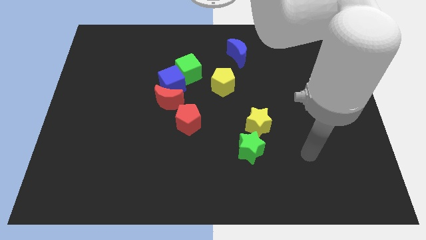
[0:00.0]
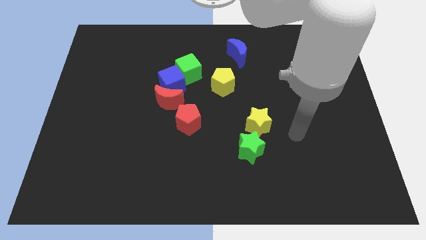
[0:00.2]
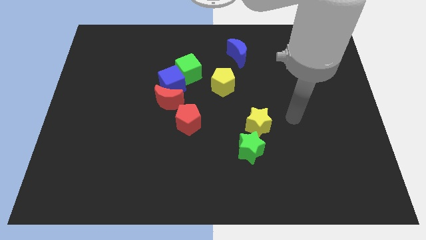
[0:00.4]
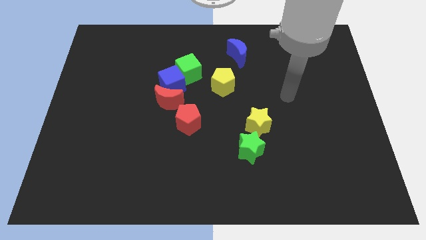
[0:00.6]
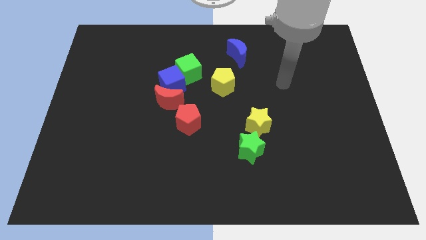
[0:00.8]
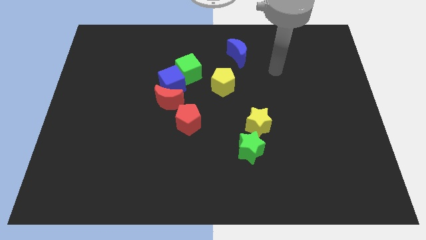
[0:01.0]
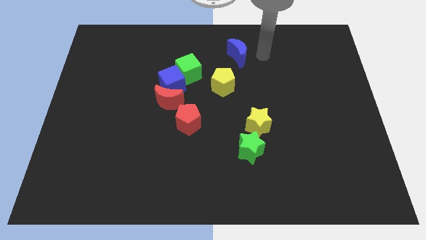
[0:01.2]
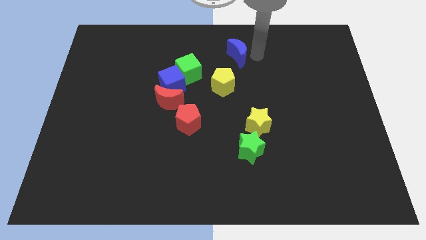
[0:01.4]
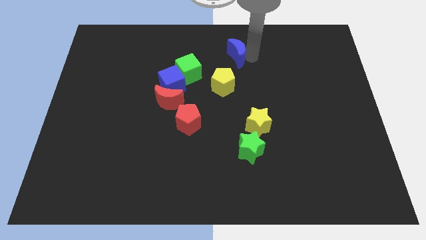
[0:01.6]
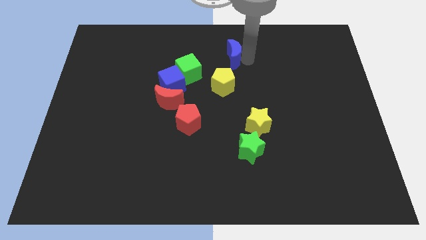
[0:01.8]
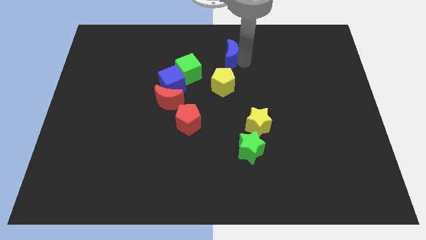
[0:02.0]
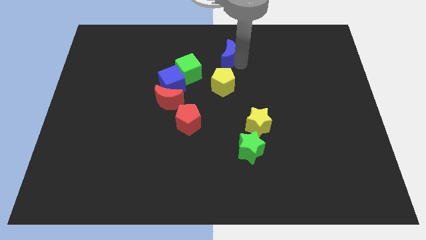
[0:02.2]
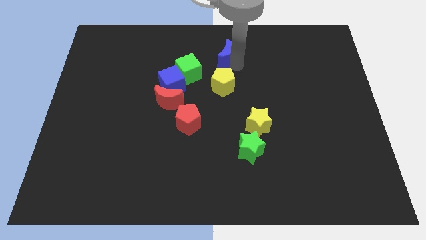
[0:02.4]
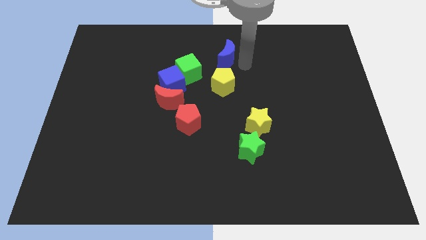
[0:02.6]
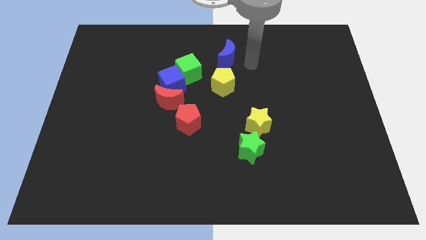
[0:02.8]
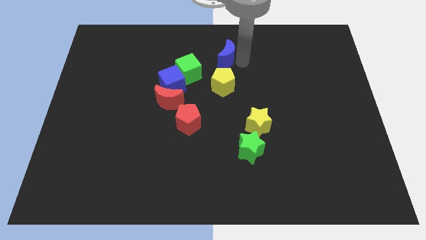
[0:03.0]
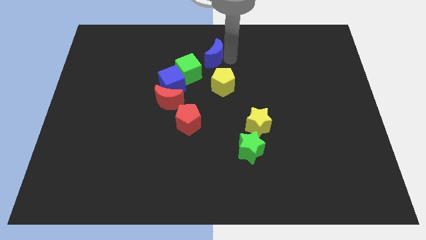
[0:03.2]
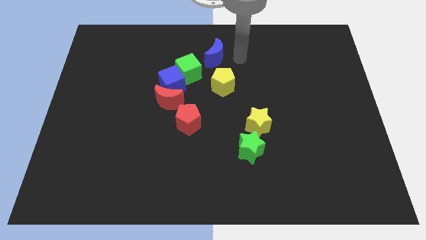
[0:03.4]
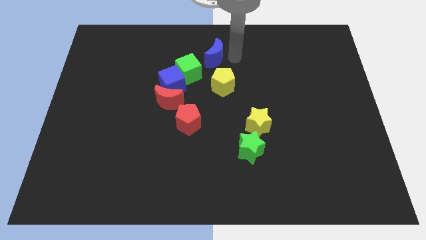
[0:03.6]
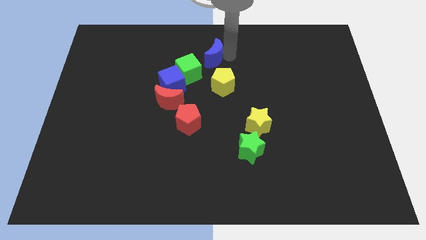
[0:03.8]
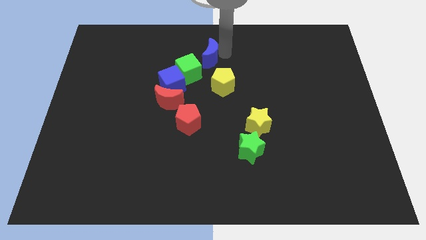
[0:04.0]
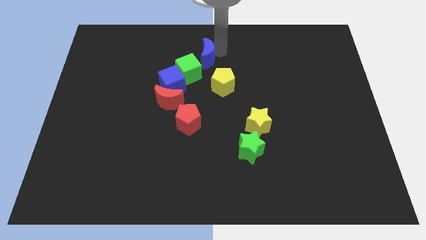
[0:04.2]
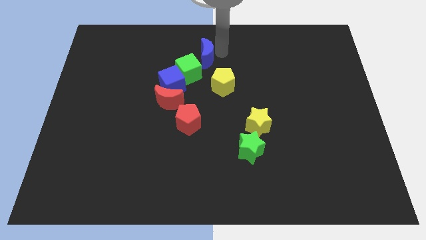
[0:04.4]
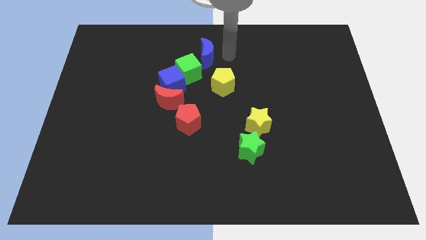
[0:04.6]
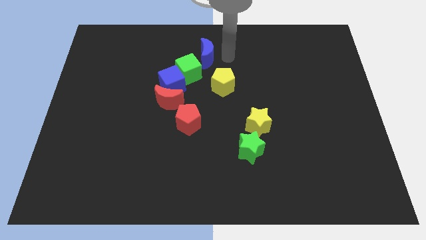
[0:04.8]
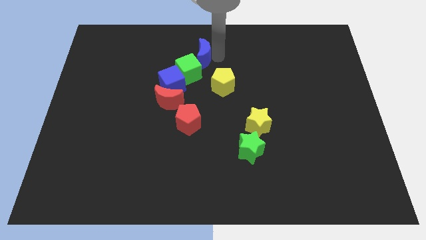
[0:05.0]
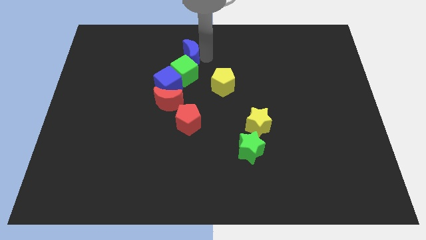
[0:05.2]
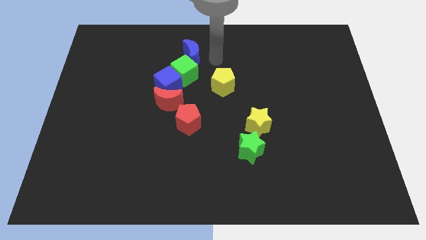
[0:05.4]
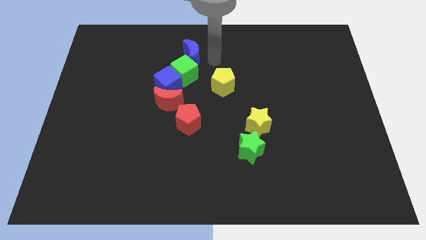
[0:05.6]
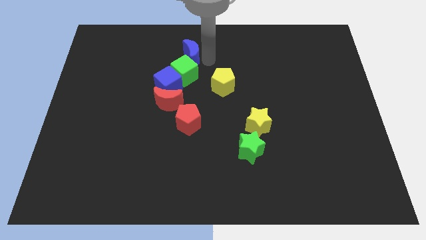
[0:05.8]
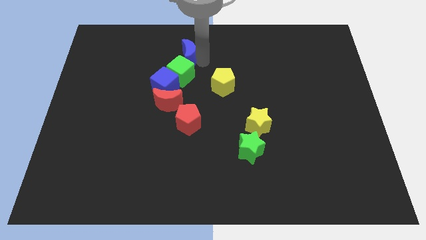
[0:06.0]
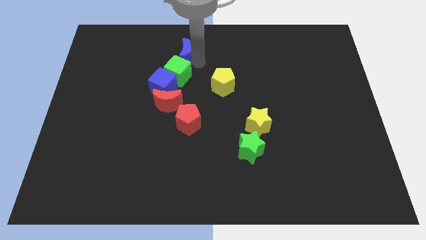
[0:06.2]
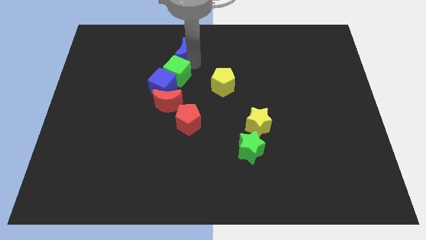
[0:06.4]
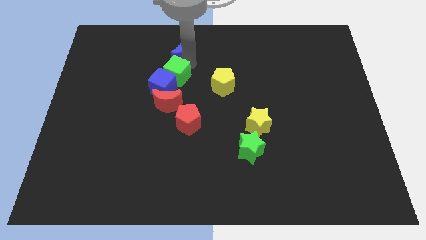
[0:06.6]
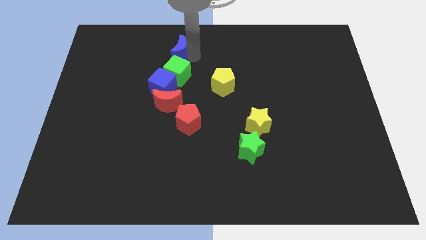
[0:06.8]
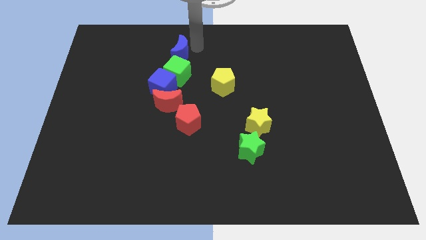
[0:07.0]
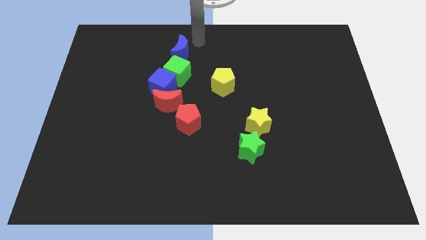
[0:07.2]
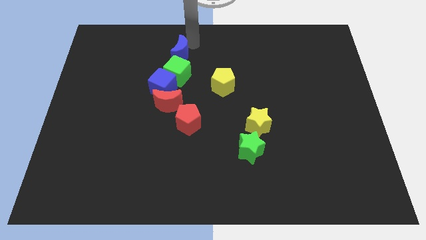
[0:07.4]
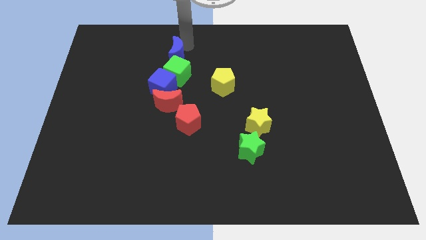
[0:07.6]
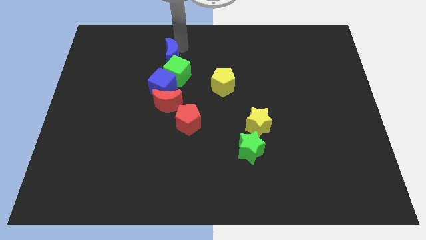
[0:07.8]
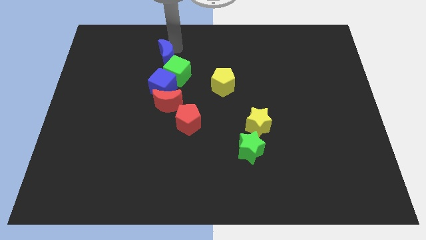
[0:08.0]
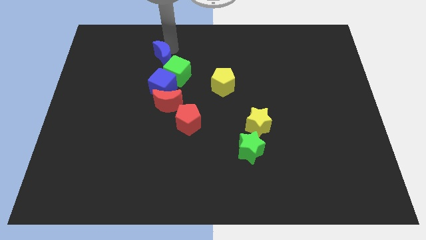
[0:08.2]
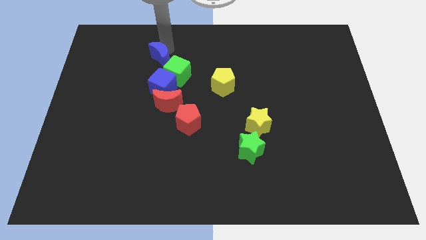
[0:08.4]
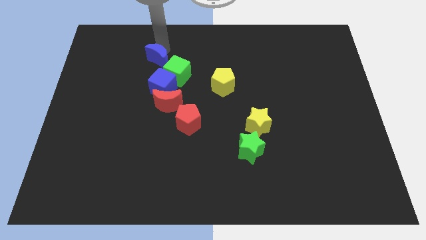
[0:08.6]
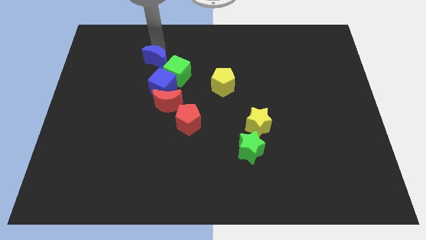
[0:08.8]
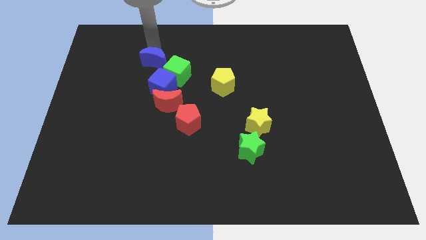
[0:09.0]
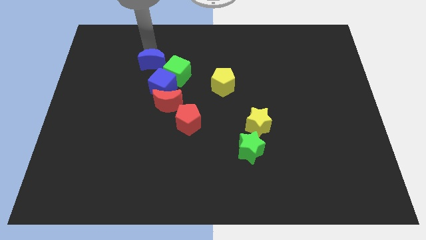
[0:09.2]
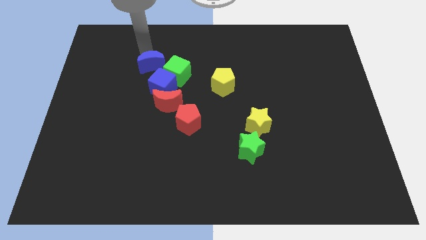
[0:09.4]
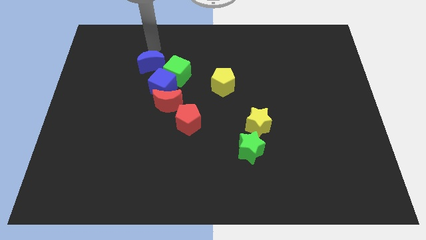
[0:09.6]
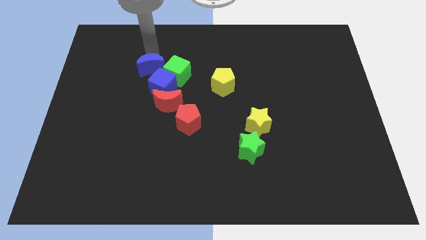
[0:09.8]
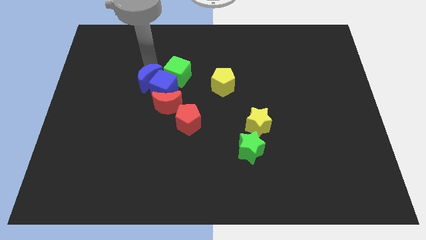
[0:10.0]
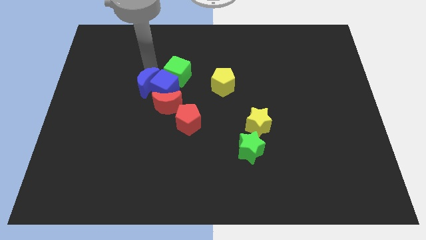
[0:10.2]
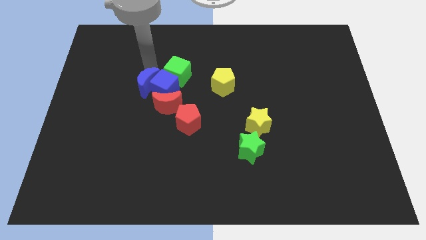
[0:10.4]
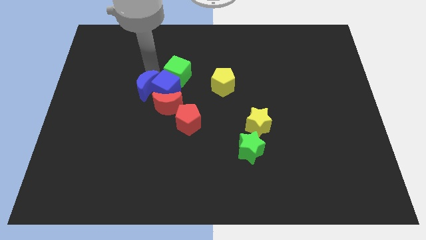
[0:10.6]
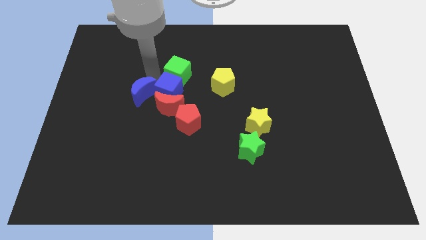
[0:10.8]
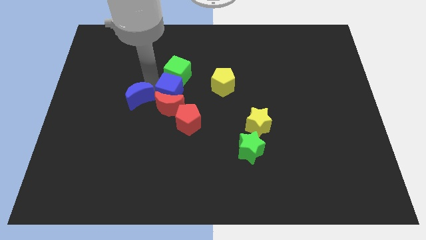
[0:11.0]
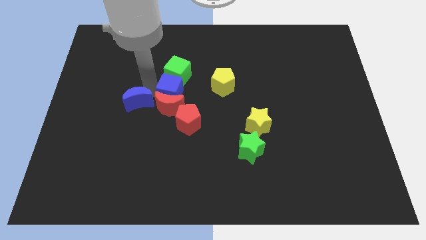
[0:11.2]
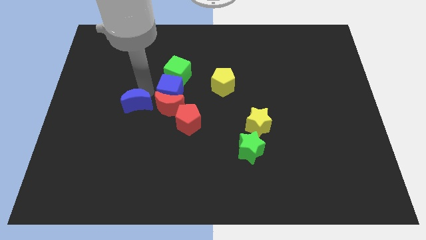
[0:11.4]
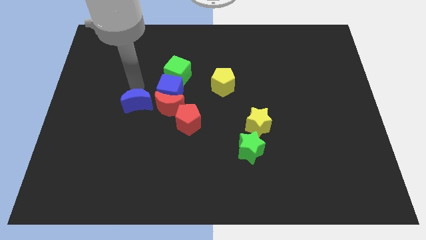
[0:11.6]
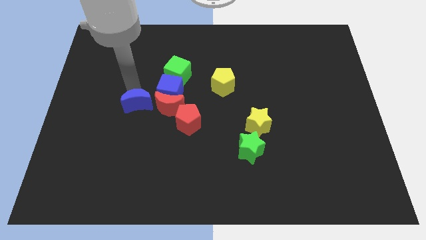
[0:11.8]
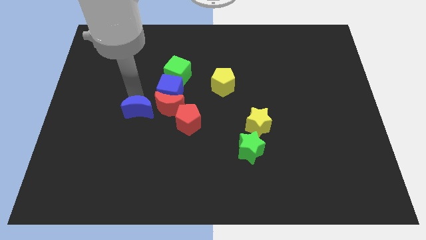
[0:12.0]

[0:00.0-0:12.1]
slide the blue moon just left of the red pentagon
